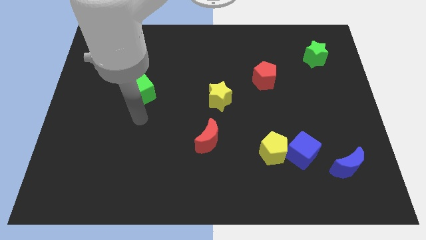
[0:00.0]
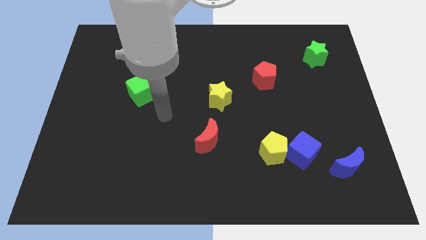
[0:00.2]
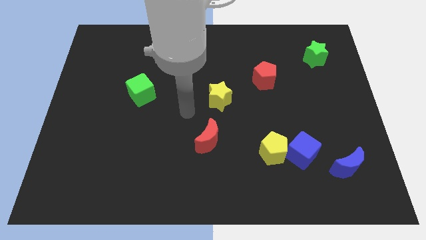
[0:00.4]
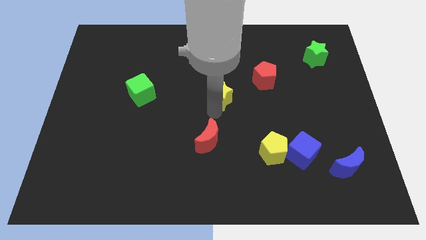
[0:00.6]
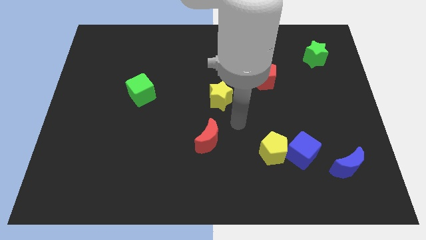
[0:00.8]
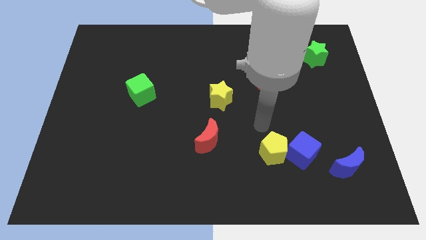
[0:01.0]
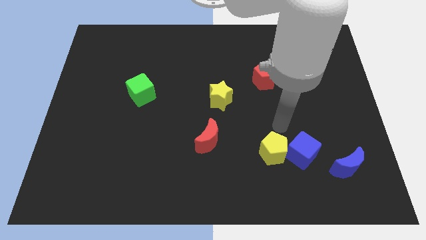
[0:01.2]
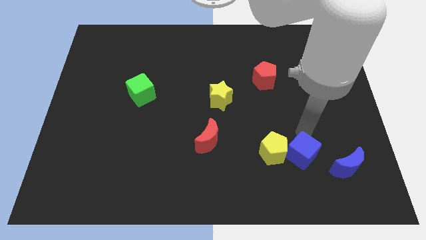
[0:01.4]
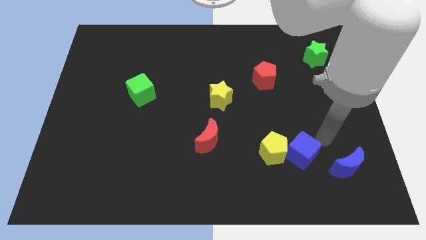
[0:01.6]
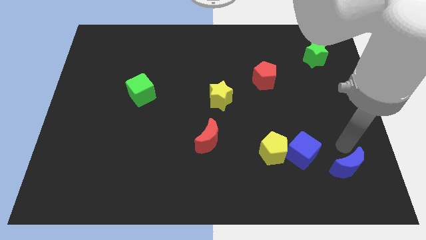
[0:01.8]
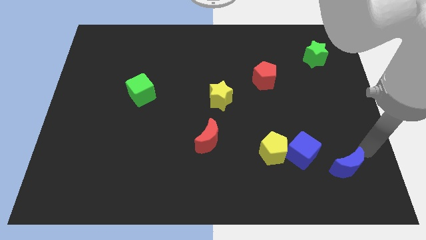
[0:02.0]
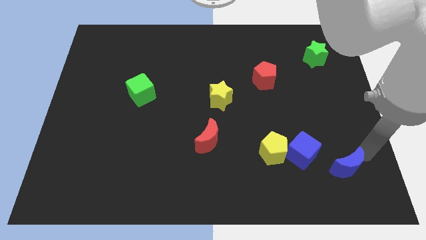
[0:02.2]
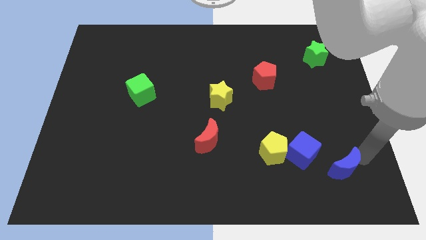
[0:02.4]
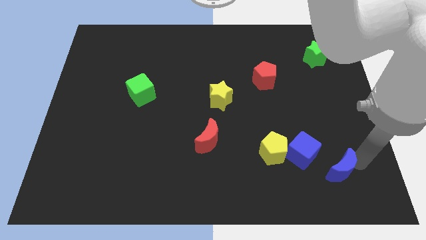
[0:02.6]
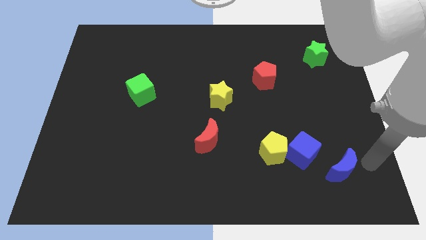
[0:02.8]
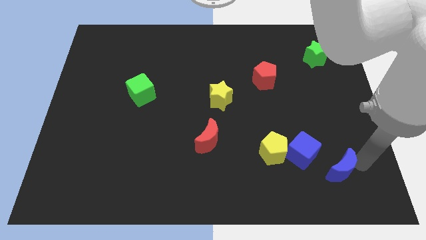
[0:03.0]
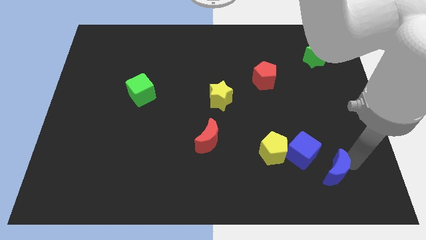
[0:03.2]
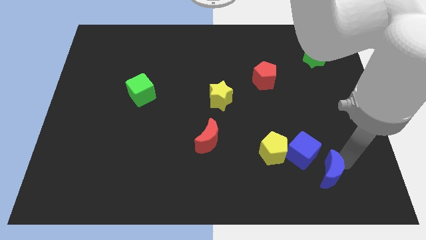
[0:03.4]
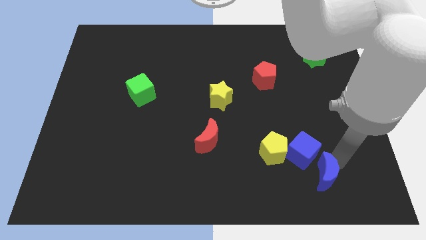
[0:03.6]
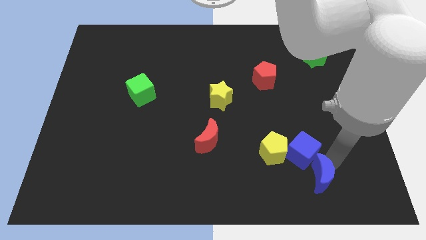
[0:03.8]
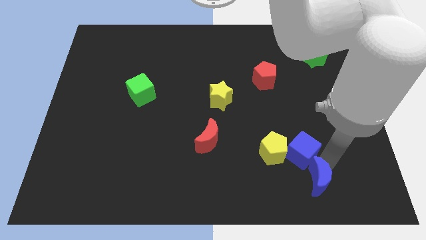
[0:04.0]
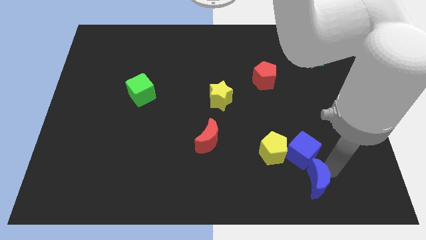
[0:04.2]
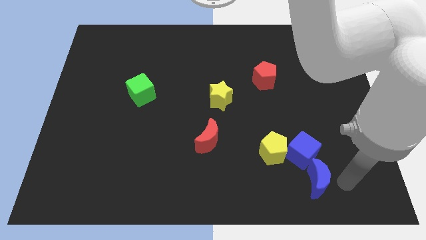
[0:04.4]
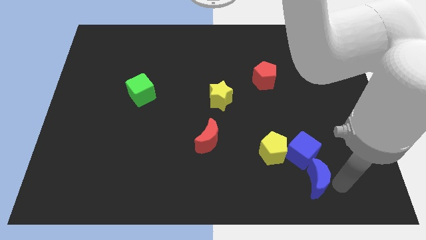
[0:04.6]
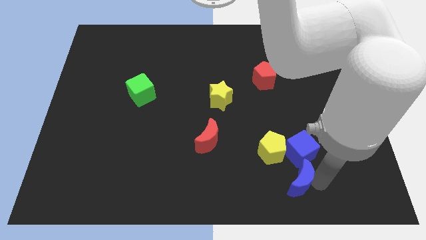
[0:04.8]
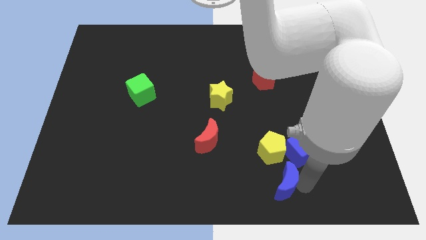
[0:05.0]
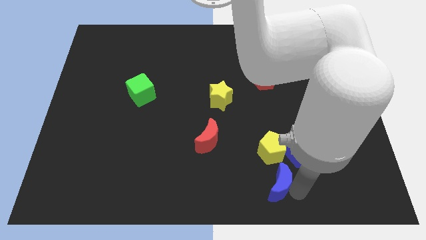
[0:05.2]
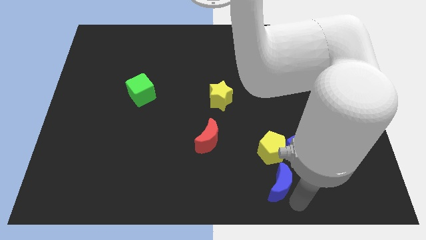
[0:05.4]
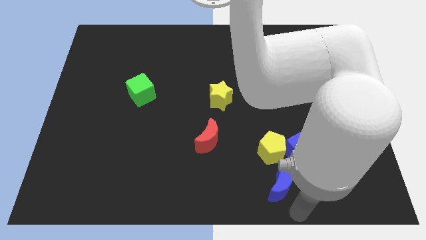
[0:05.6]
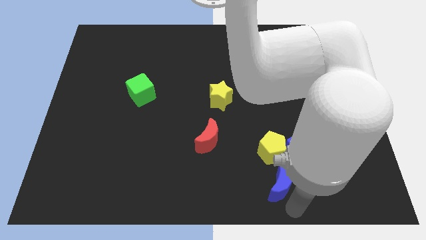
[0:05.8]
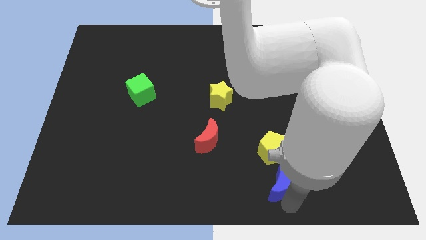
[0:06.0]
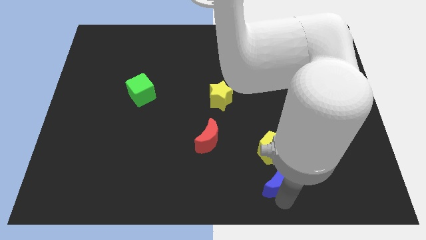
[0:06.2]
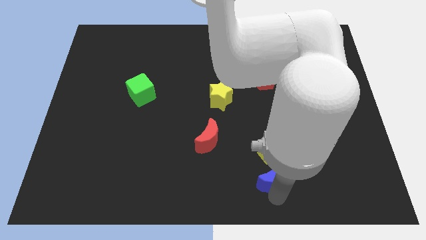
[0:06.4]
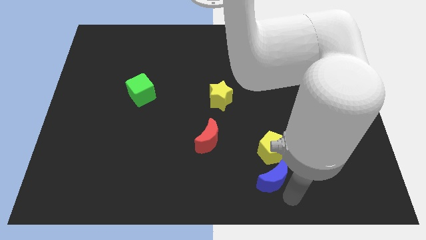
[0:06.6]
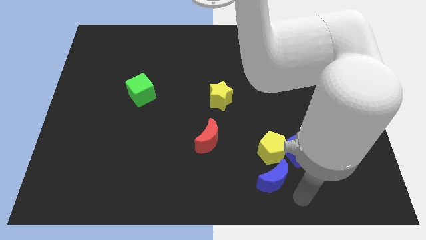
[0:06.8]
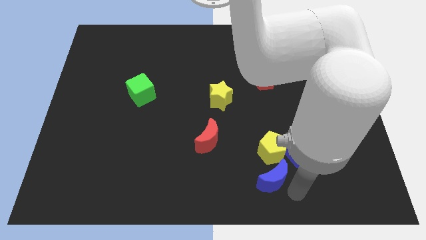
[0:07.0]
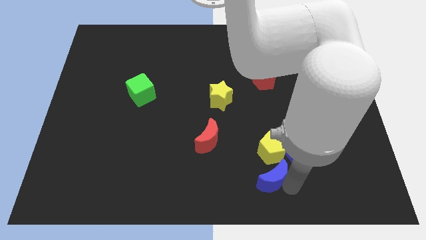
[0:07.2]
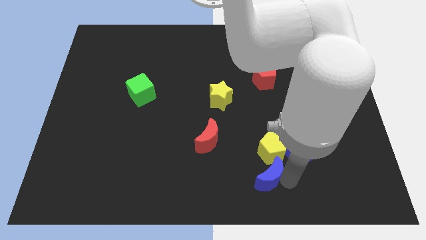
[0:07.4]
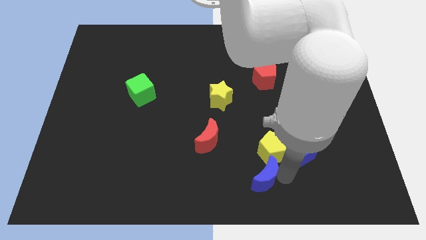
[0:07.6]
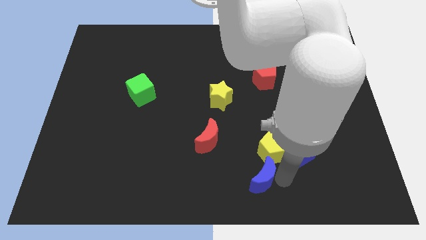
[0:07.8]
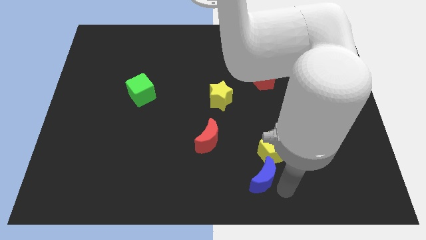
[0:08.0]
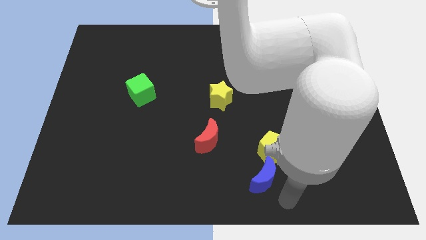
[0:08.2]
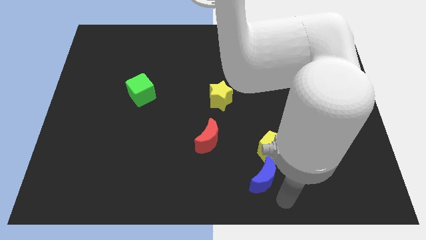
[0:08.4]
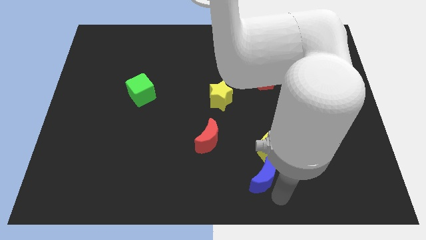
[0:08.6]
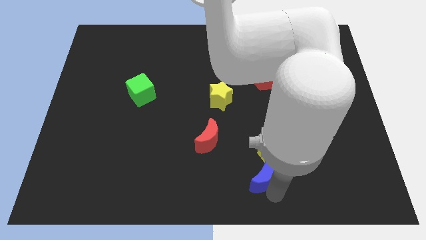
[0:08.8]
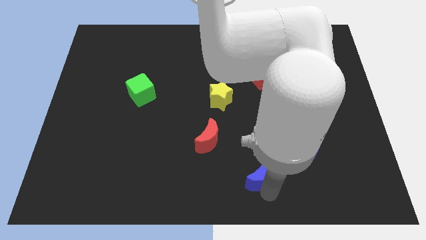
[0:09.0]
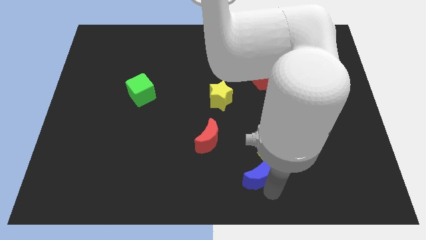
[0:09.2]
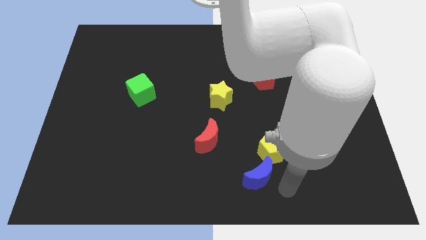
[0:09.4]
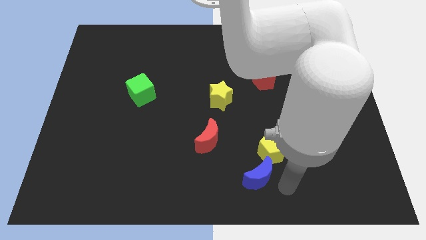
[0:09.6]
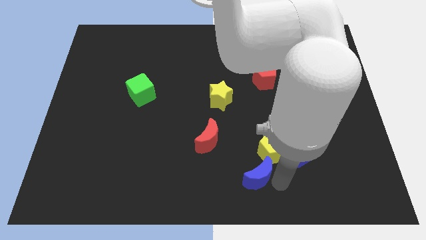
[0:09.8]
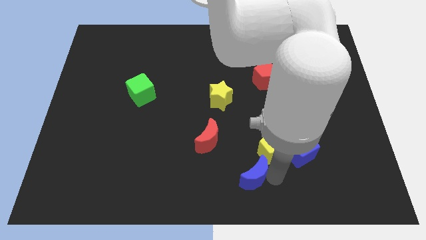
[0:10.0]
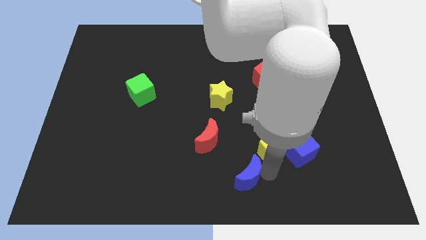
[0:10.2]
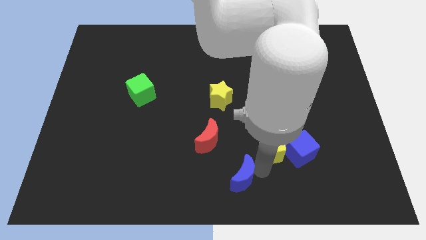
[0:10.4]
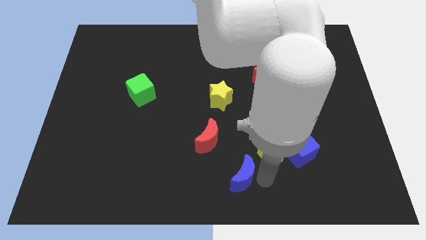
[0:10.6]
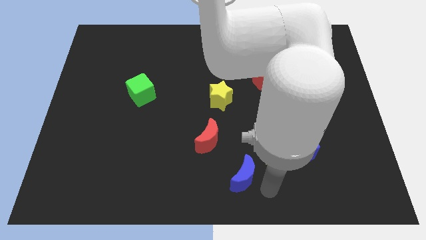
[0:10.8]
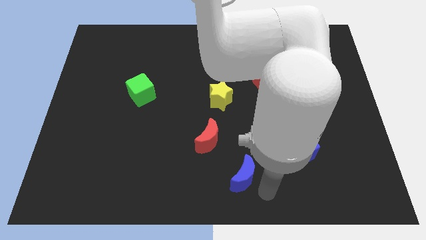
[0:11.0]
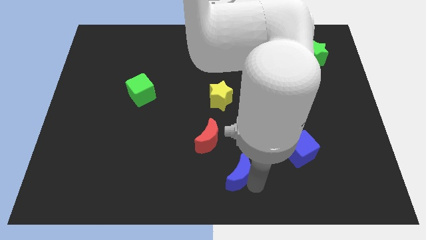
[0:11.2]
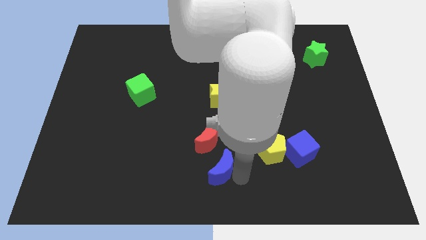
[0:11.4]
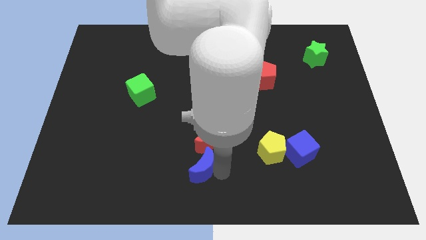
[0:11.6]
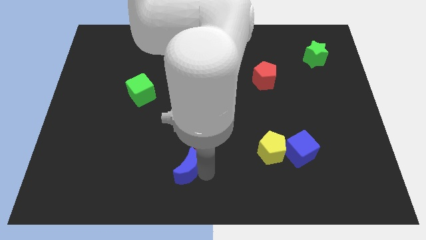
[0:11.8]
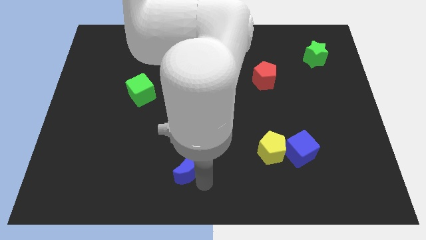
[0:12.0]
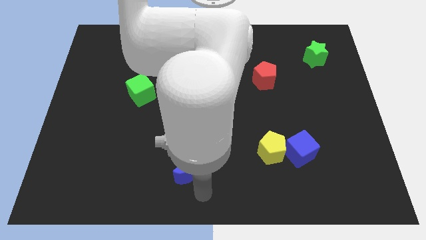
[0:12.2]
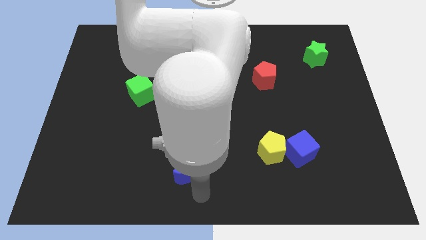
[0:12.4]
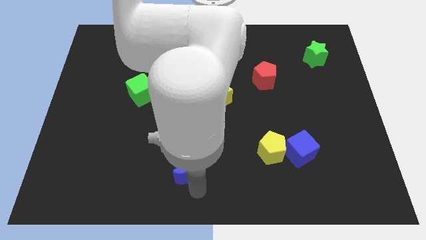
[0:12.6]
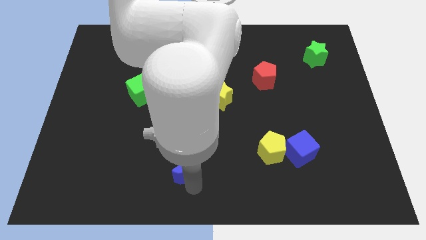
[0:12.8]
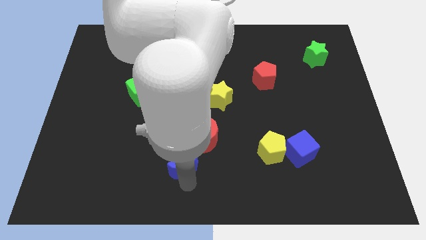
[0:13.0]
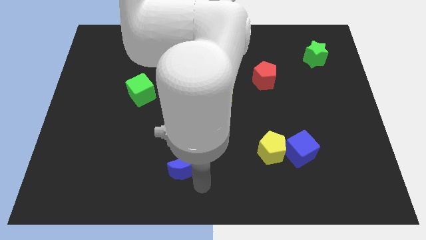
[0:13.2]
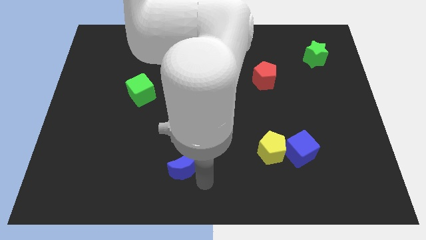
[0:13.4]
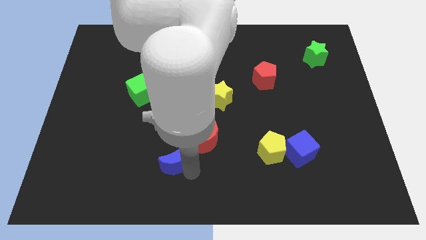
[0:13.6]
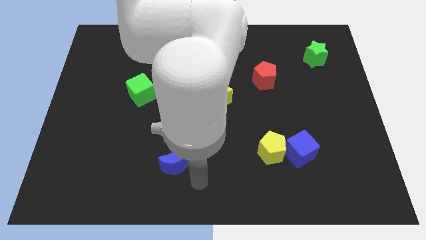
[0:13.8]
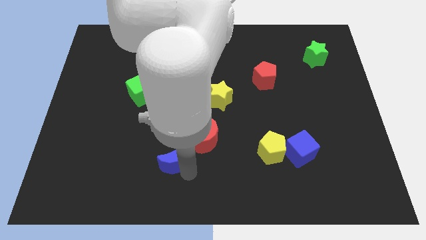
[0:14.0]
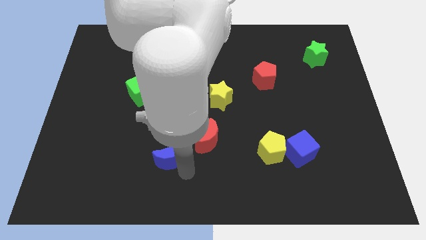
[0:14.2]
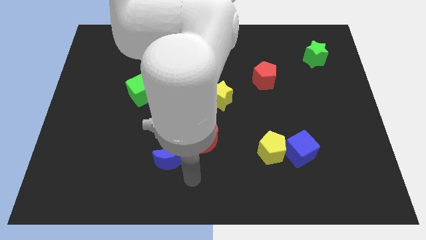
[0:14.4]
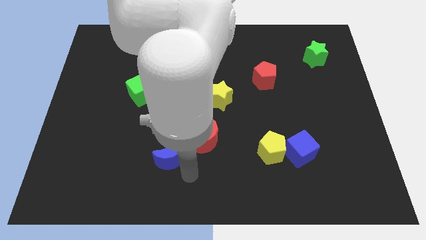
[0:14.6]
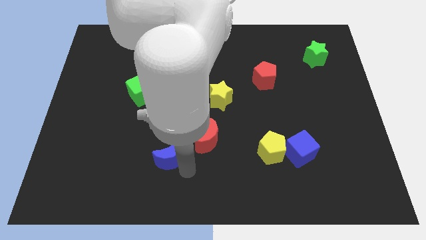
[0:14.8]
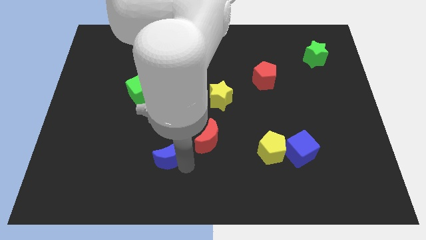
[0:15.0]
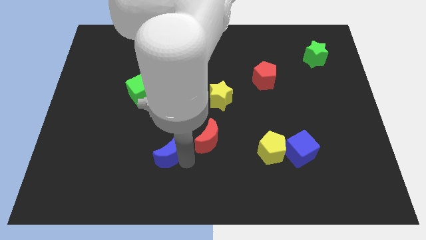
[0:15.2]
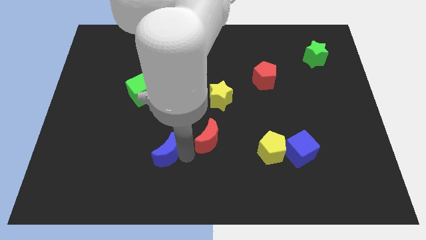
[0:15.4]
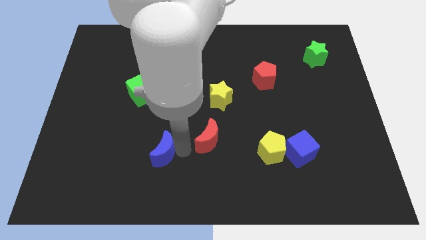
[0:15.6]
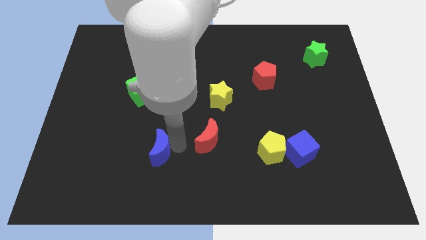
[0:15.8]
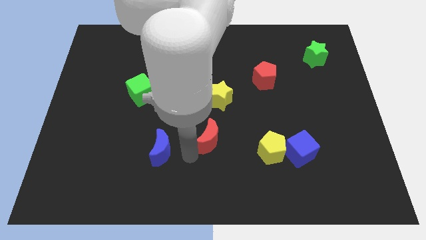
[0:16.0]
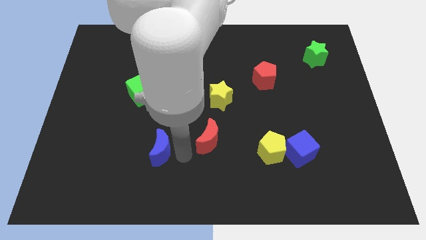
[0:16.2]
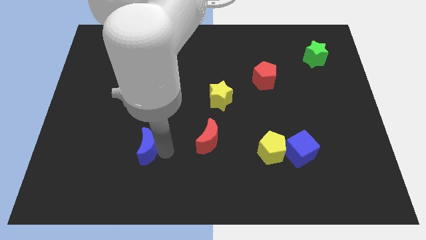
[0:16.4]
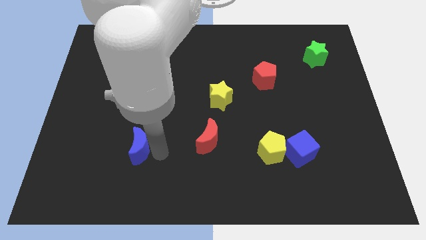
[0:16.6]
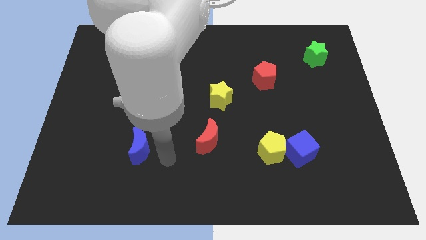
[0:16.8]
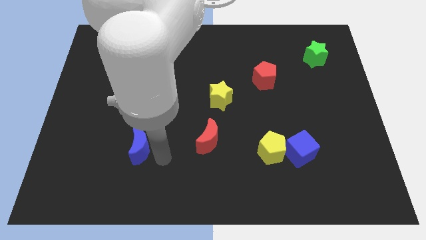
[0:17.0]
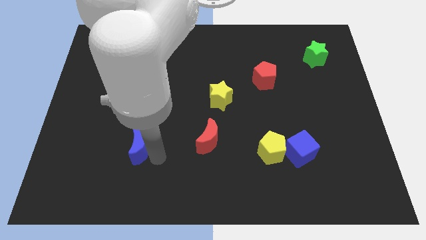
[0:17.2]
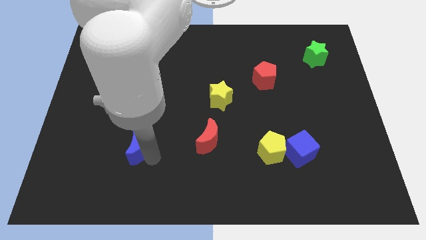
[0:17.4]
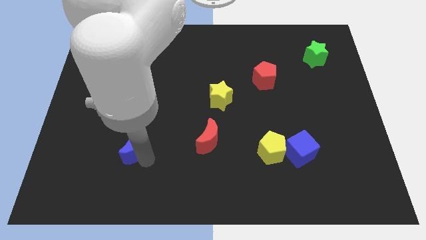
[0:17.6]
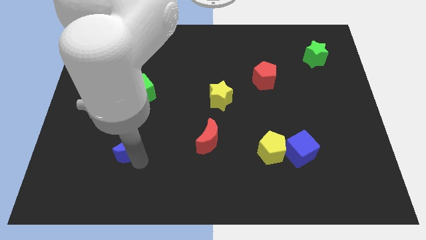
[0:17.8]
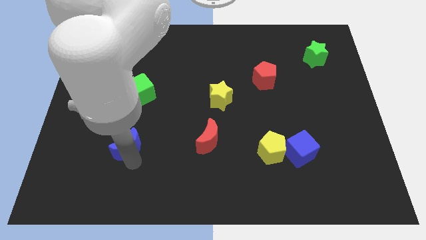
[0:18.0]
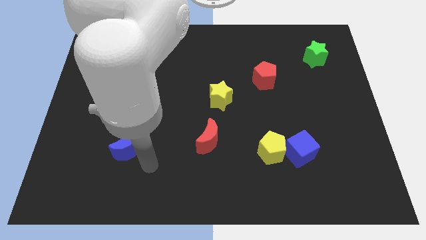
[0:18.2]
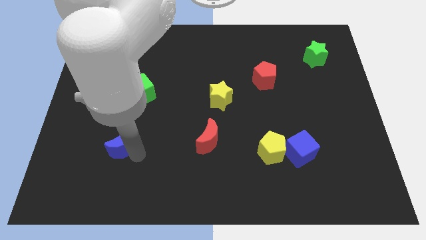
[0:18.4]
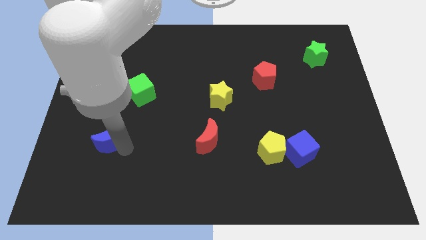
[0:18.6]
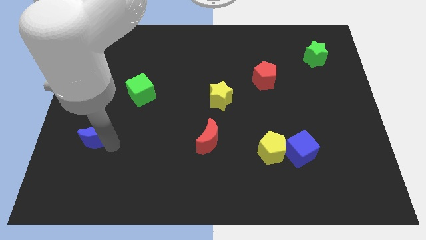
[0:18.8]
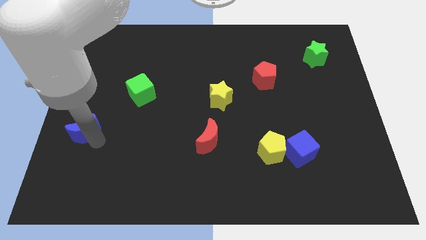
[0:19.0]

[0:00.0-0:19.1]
move the blue moon to the left side
